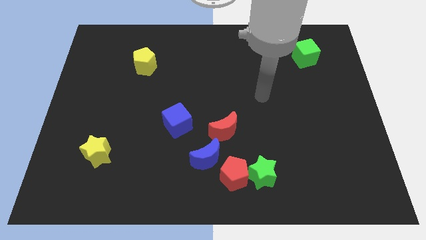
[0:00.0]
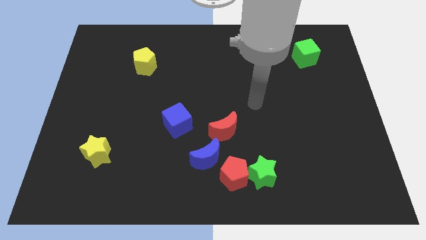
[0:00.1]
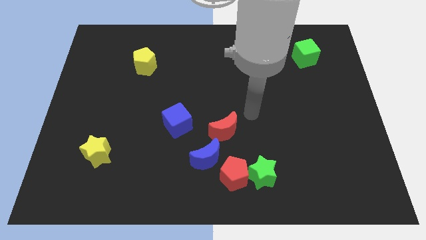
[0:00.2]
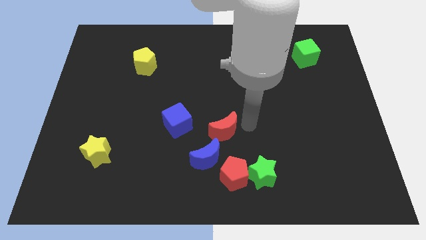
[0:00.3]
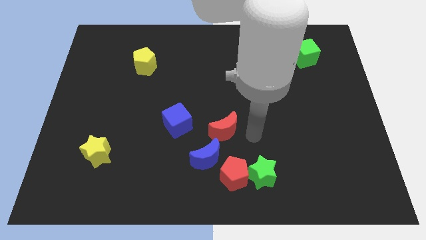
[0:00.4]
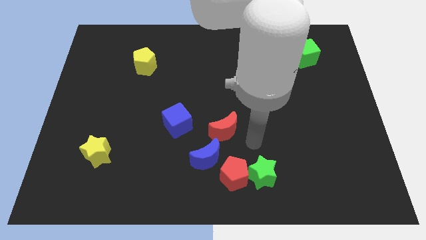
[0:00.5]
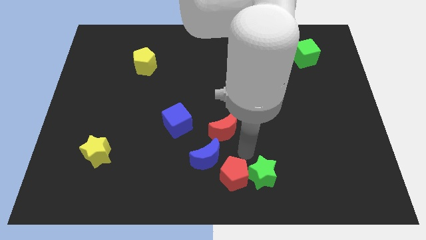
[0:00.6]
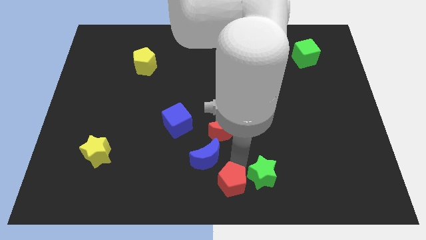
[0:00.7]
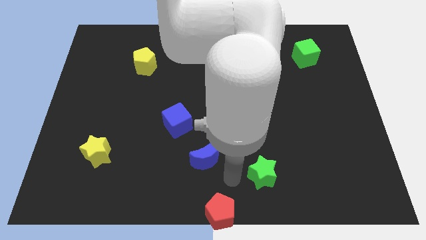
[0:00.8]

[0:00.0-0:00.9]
move the green star away from the red pentagon

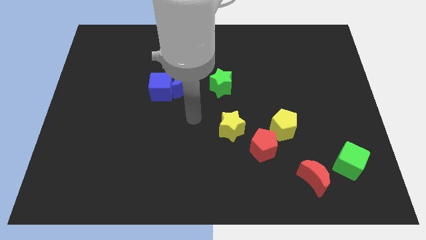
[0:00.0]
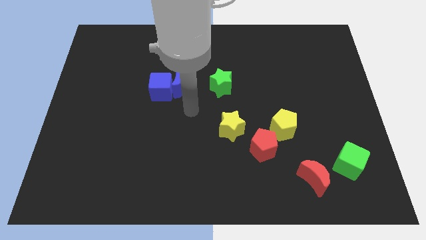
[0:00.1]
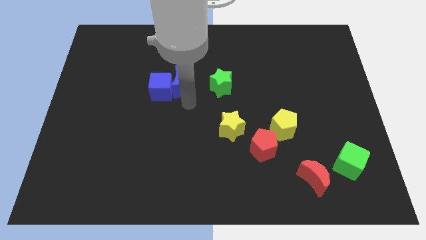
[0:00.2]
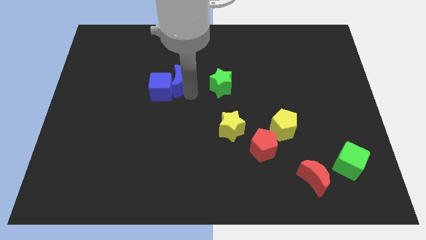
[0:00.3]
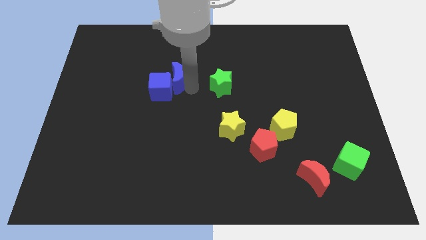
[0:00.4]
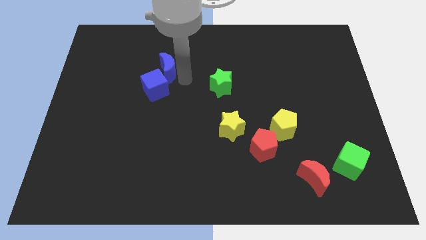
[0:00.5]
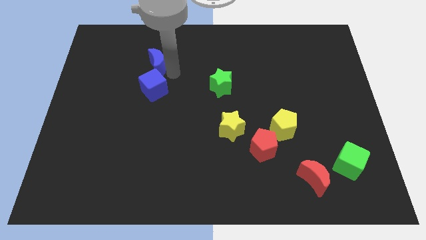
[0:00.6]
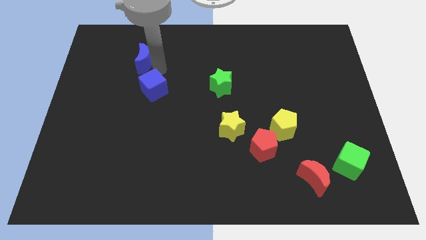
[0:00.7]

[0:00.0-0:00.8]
move the blue cube away from the blue moon

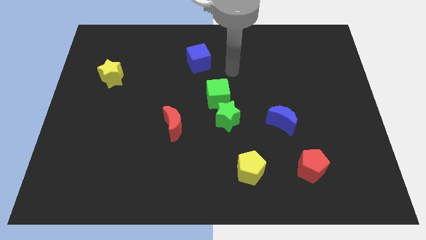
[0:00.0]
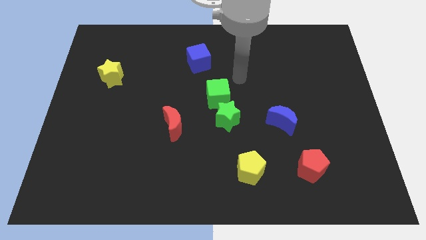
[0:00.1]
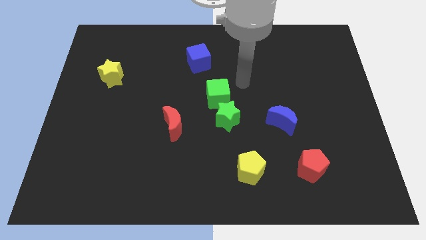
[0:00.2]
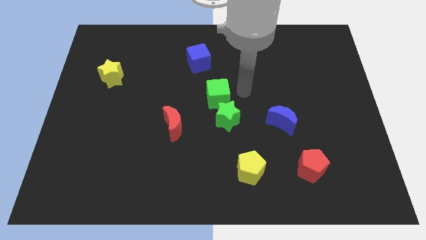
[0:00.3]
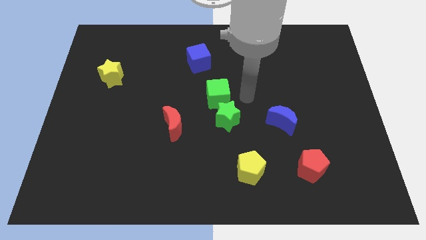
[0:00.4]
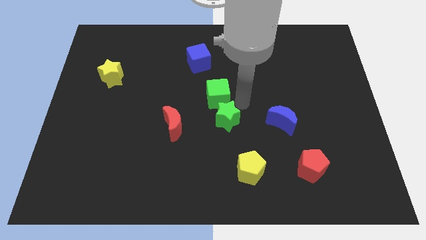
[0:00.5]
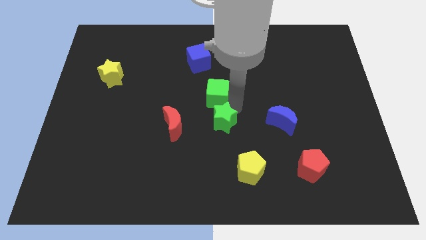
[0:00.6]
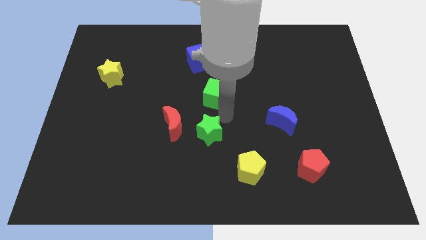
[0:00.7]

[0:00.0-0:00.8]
move the green cube away from the green star

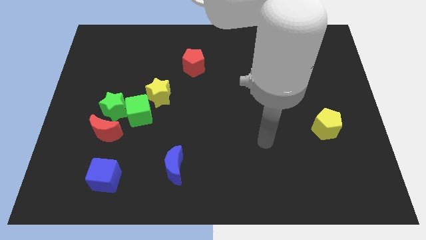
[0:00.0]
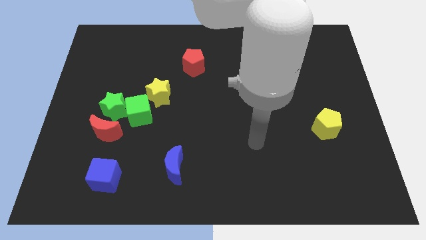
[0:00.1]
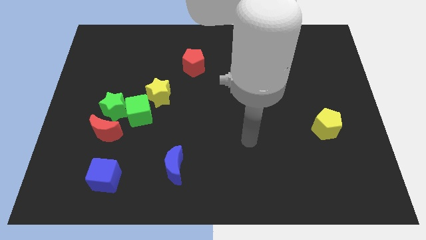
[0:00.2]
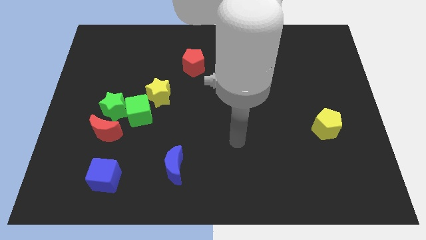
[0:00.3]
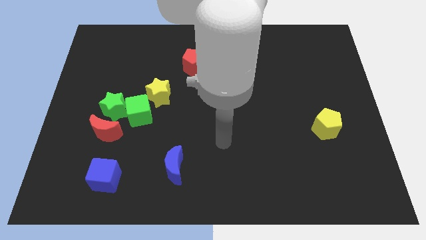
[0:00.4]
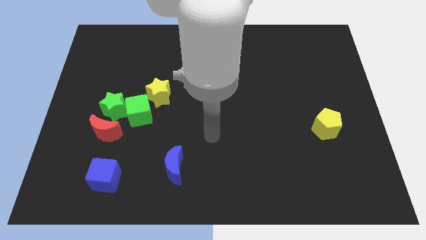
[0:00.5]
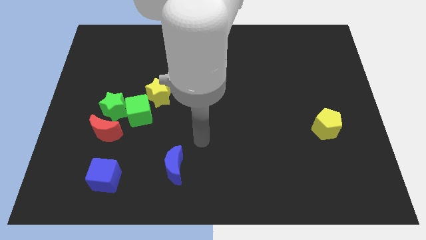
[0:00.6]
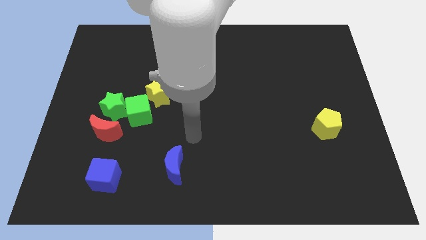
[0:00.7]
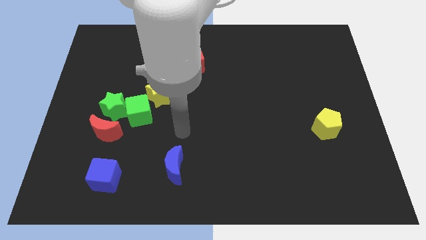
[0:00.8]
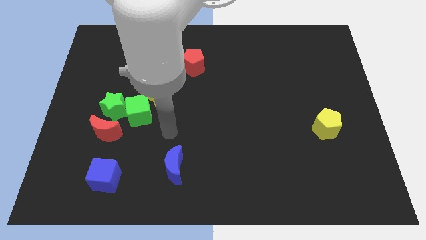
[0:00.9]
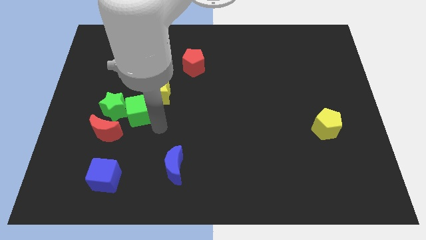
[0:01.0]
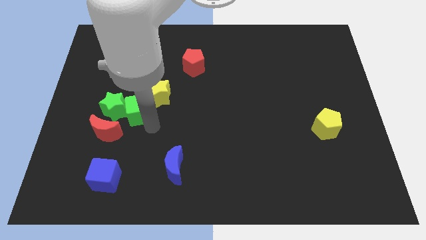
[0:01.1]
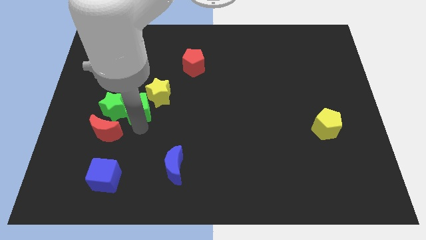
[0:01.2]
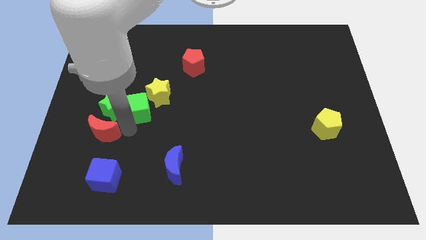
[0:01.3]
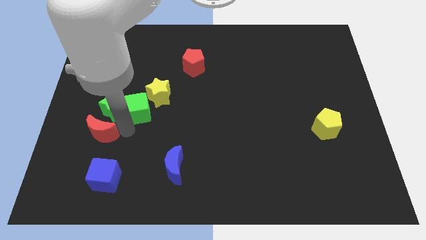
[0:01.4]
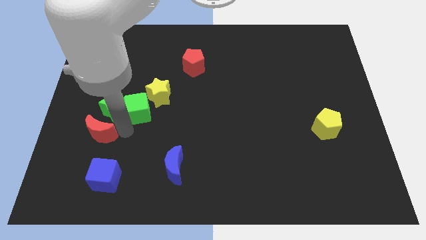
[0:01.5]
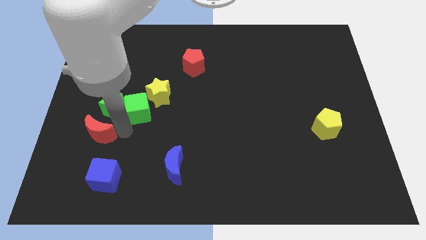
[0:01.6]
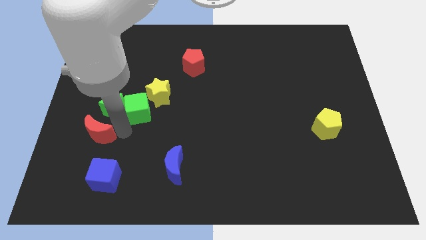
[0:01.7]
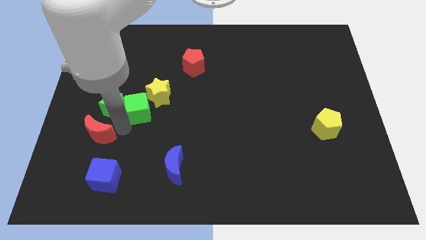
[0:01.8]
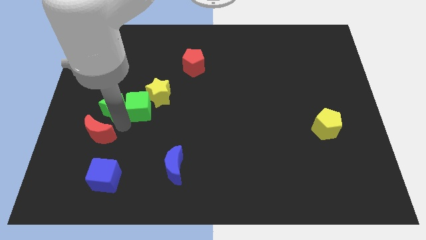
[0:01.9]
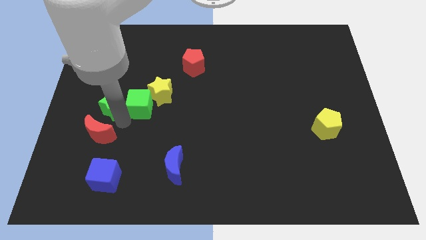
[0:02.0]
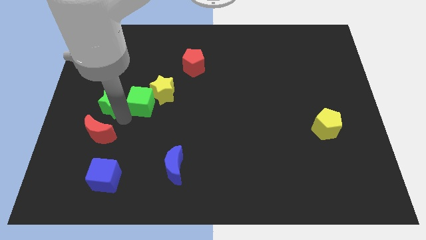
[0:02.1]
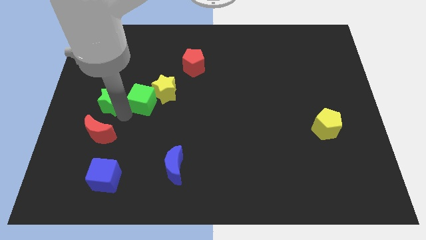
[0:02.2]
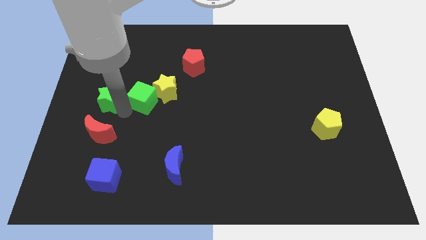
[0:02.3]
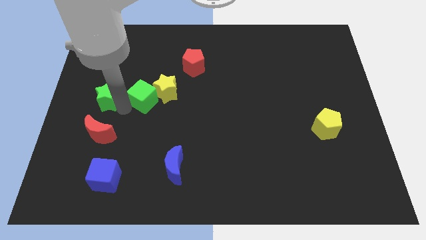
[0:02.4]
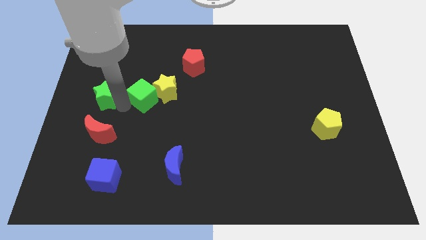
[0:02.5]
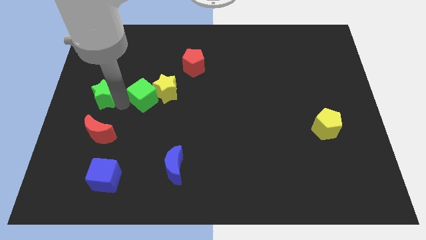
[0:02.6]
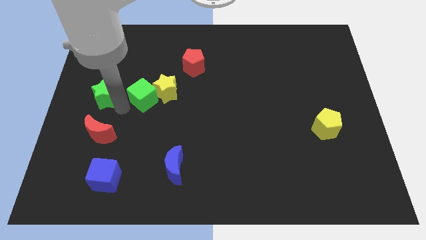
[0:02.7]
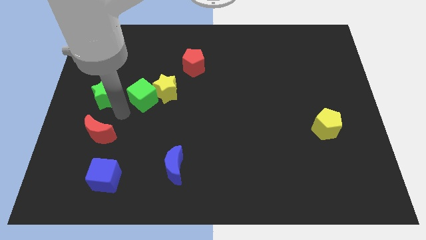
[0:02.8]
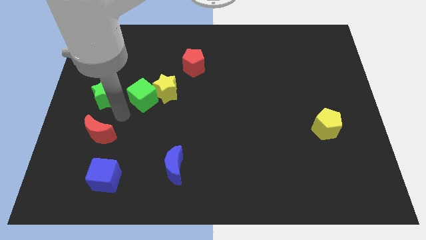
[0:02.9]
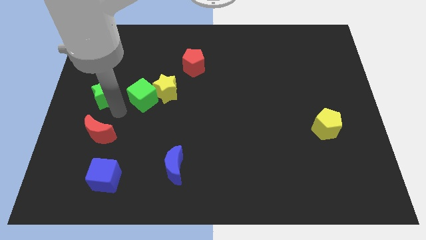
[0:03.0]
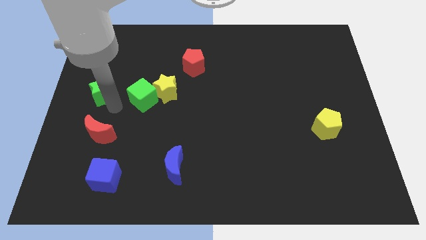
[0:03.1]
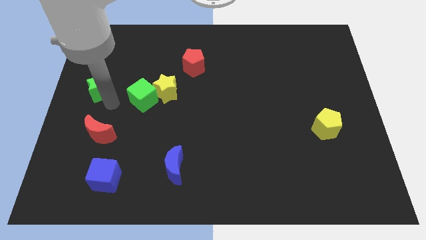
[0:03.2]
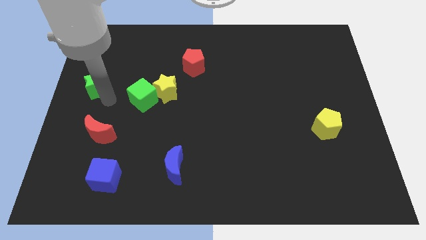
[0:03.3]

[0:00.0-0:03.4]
move the green star away from the green cube and red moon

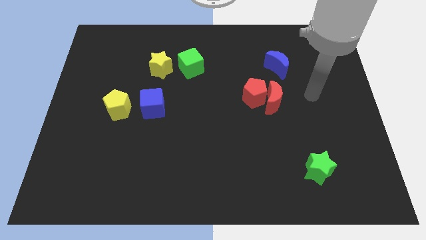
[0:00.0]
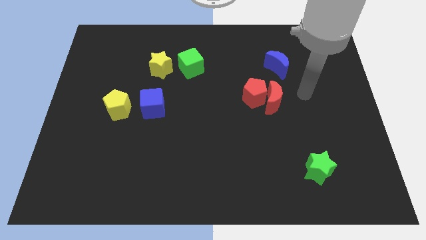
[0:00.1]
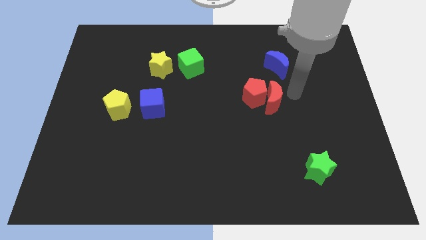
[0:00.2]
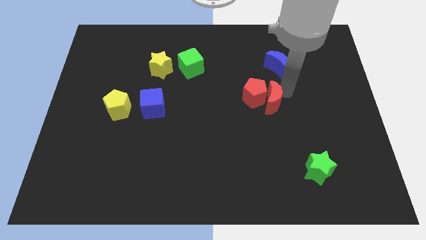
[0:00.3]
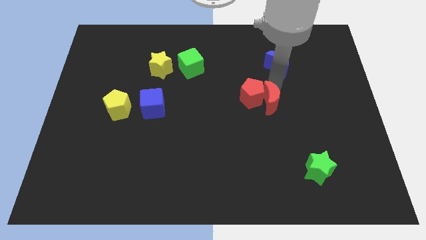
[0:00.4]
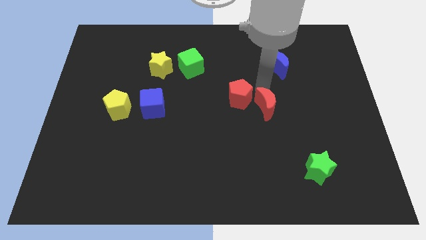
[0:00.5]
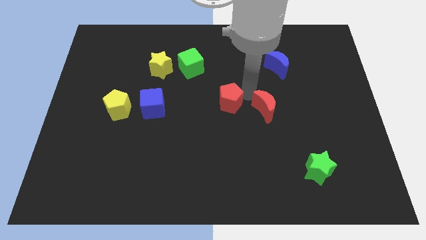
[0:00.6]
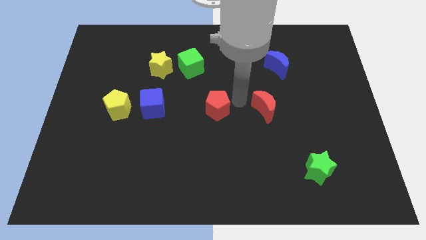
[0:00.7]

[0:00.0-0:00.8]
separate the red moon from the red pentagon

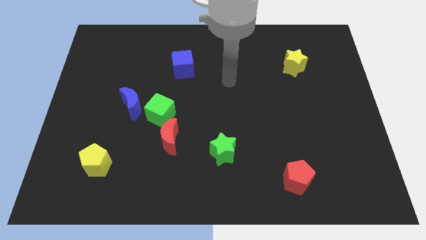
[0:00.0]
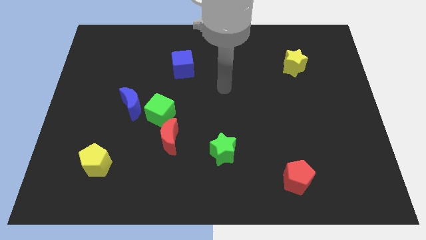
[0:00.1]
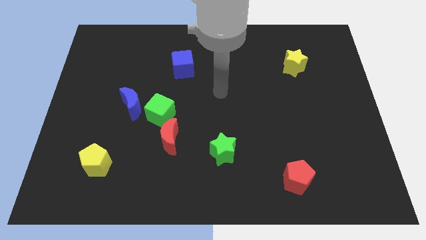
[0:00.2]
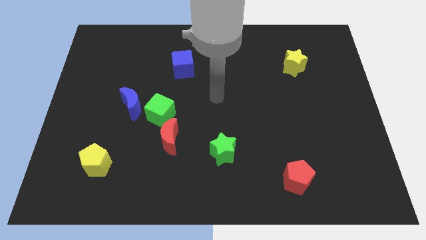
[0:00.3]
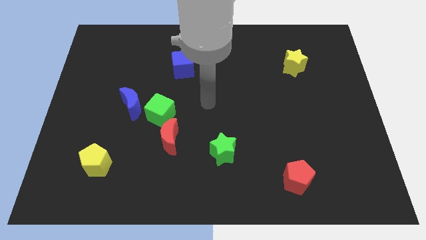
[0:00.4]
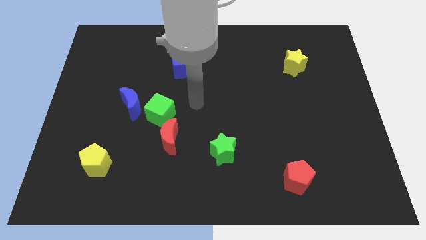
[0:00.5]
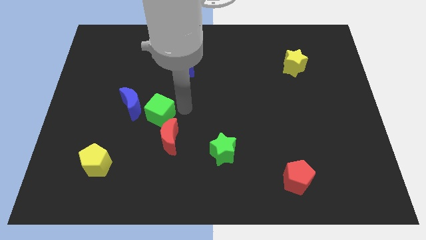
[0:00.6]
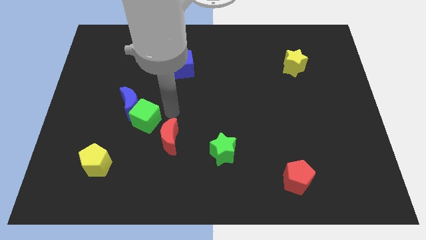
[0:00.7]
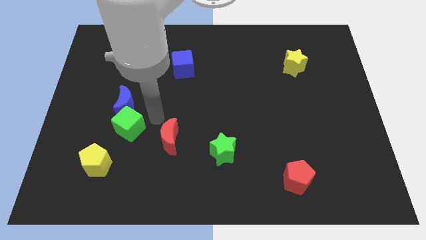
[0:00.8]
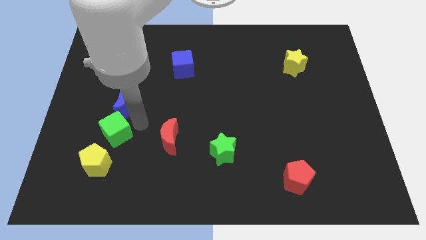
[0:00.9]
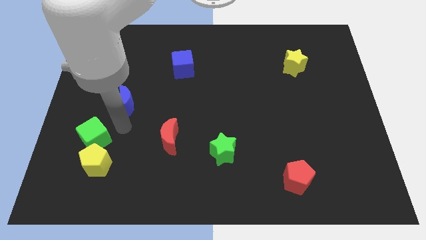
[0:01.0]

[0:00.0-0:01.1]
pull the blue moon apart from the green cube

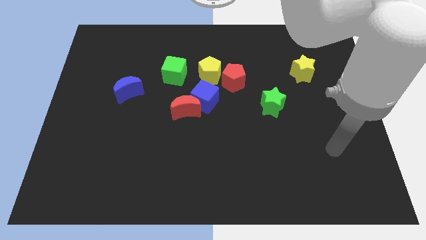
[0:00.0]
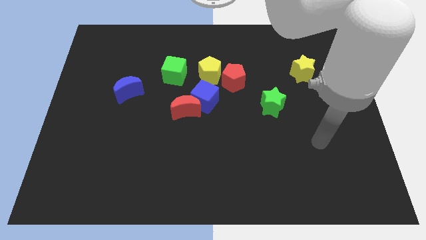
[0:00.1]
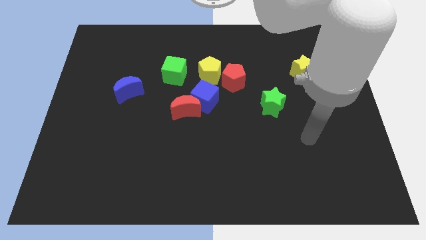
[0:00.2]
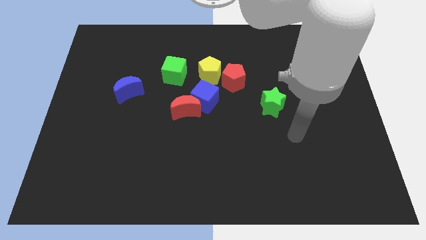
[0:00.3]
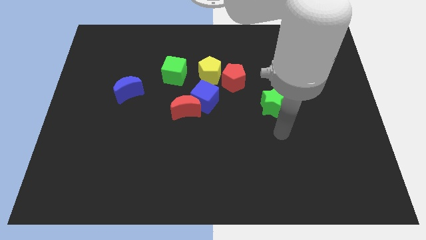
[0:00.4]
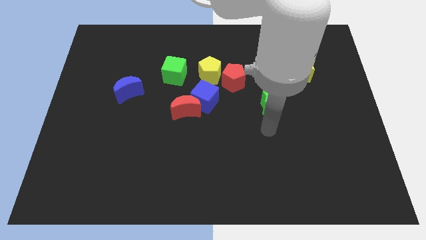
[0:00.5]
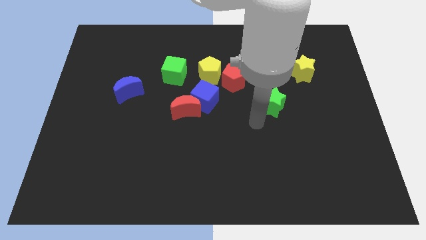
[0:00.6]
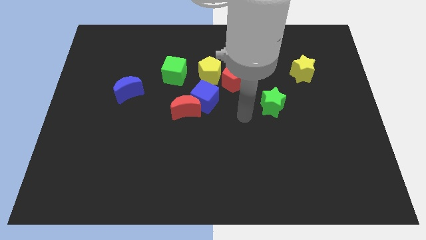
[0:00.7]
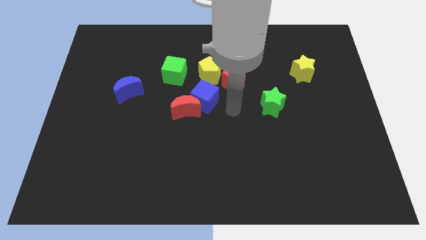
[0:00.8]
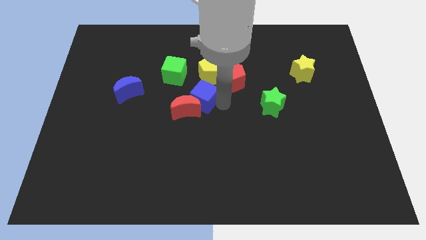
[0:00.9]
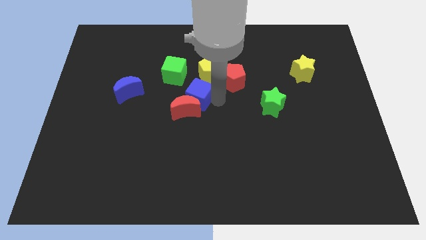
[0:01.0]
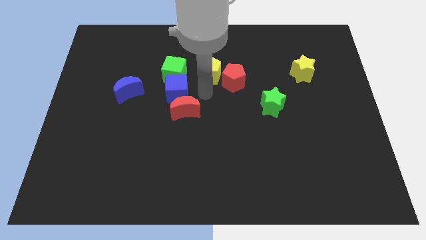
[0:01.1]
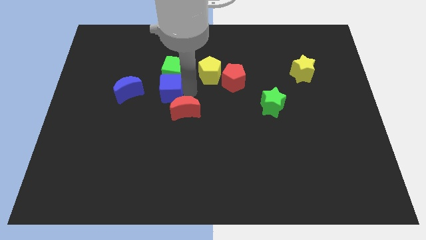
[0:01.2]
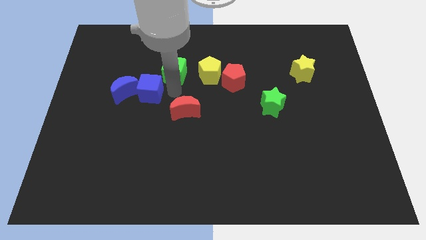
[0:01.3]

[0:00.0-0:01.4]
pull the red moon apart from the blue cube
